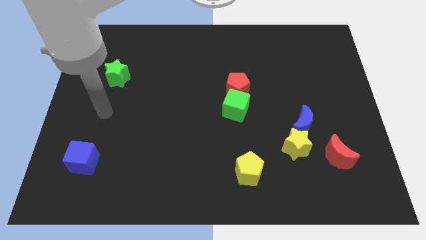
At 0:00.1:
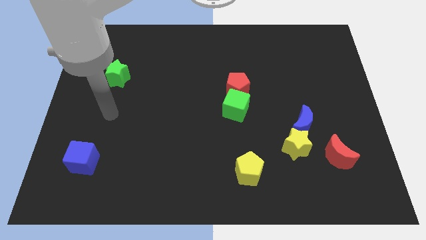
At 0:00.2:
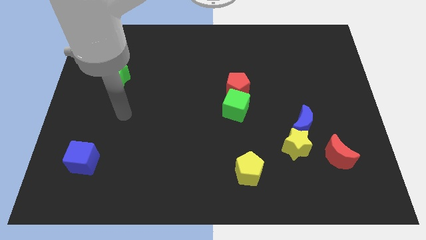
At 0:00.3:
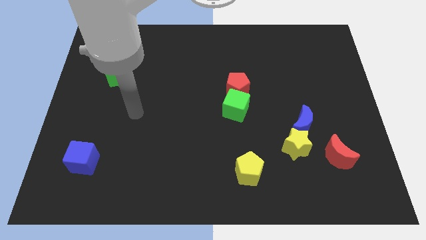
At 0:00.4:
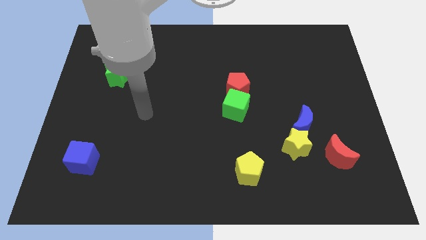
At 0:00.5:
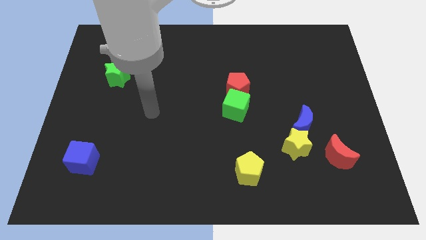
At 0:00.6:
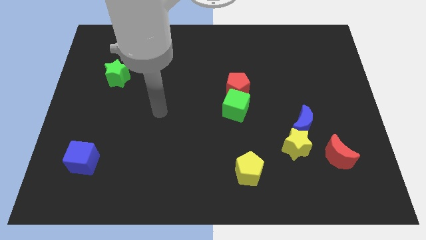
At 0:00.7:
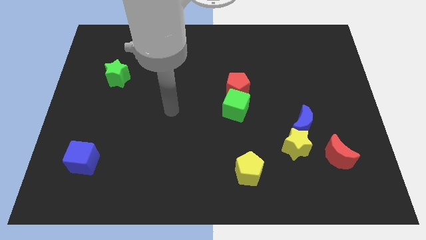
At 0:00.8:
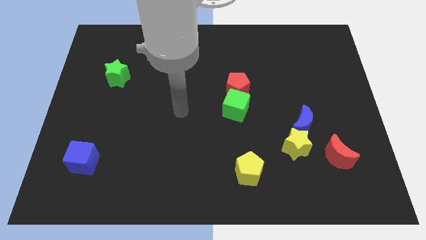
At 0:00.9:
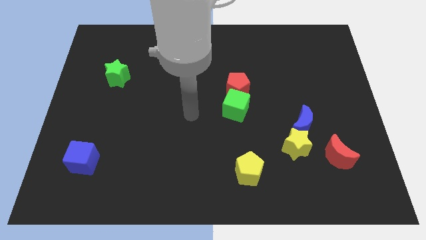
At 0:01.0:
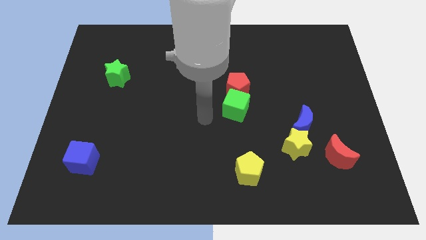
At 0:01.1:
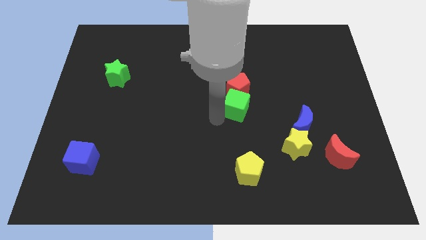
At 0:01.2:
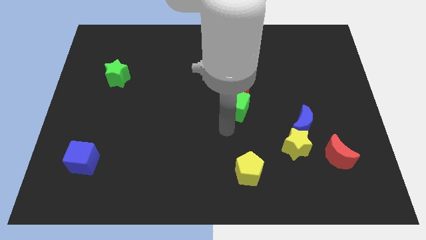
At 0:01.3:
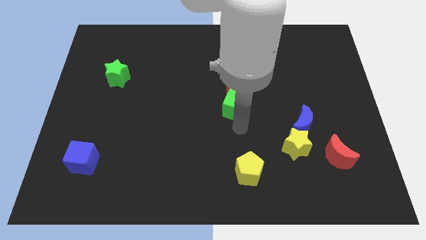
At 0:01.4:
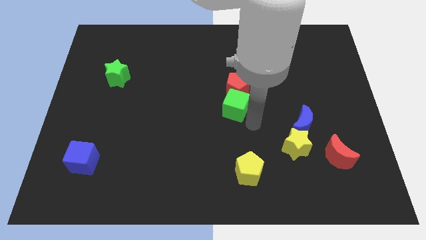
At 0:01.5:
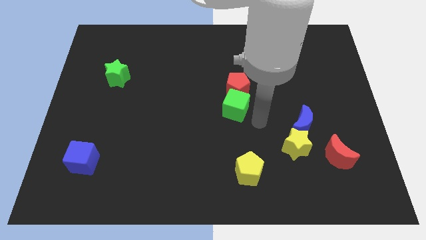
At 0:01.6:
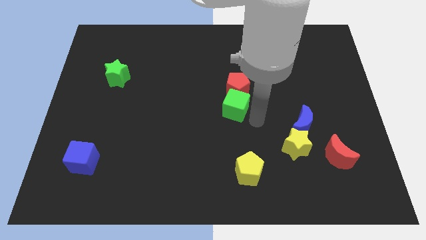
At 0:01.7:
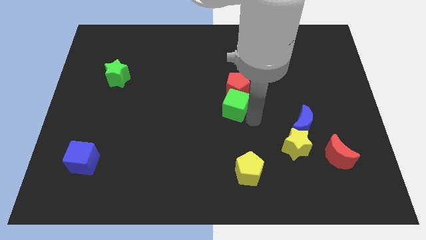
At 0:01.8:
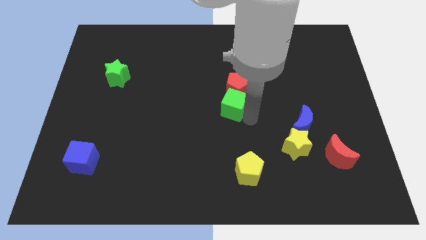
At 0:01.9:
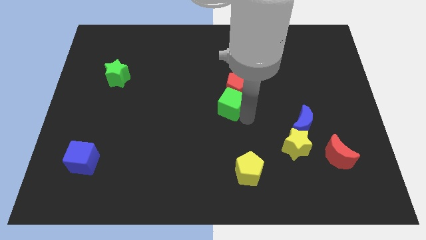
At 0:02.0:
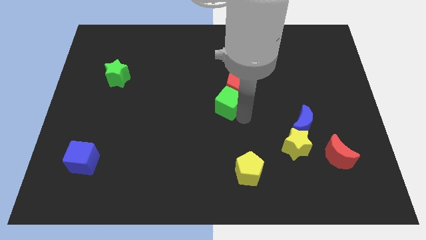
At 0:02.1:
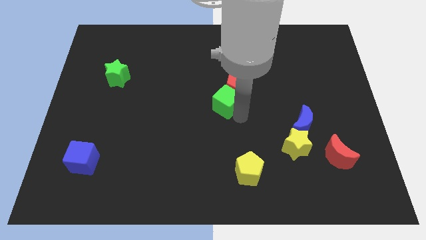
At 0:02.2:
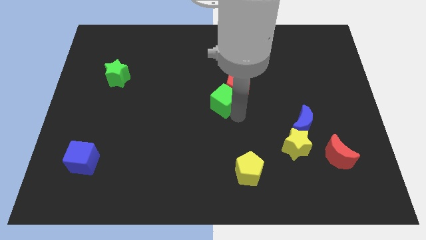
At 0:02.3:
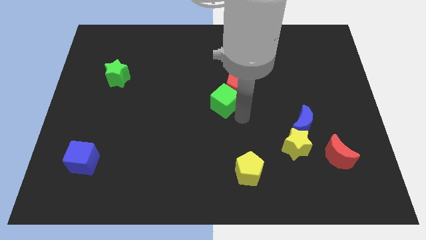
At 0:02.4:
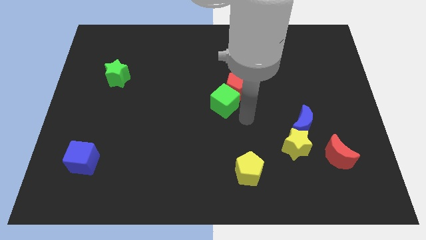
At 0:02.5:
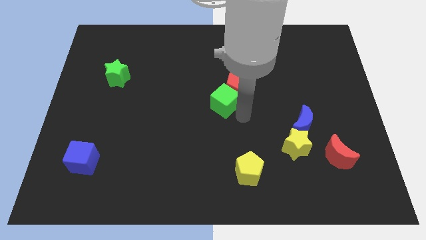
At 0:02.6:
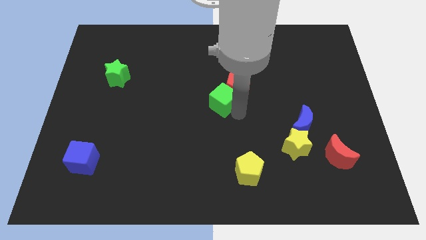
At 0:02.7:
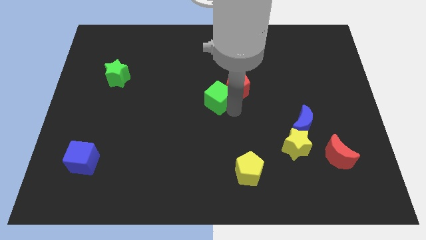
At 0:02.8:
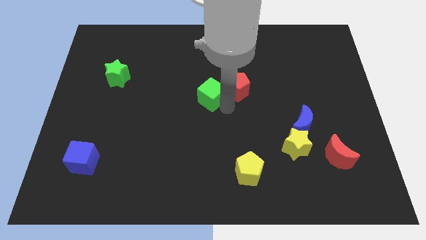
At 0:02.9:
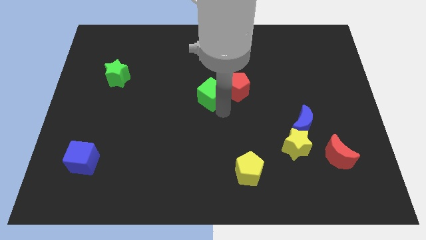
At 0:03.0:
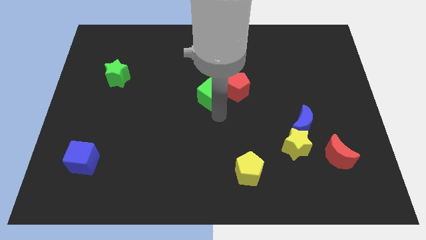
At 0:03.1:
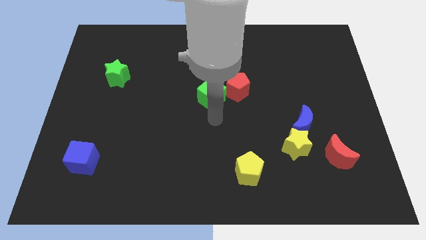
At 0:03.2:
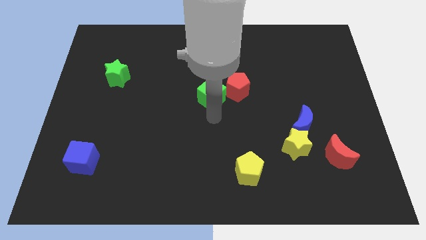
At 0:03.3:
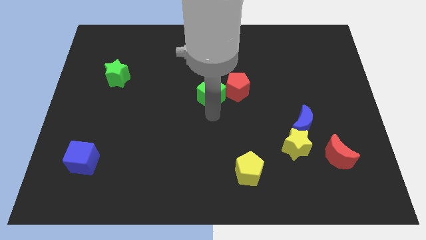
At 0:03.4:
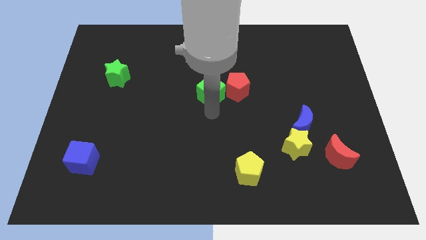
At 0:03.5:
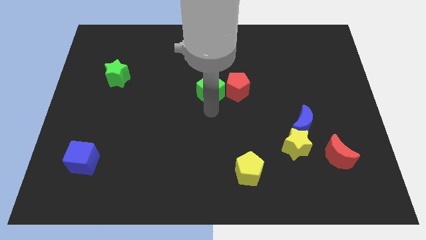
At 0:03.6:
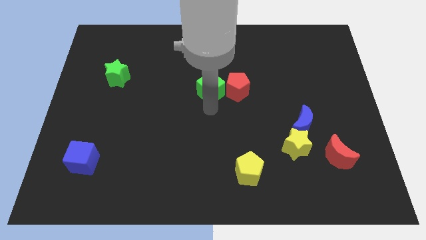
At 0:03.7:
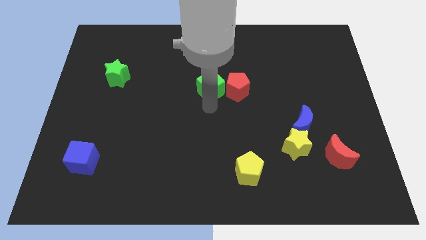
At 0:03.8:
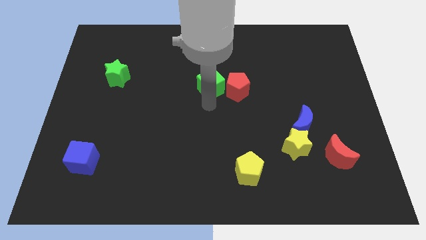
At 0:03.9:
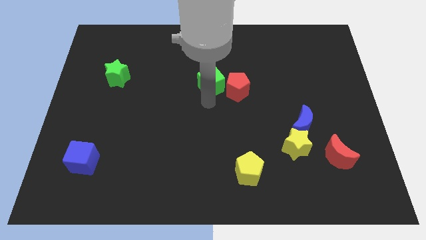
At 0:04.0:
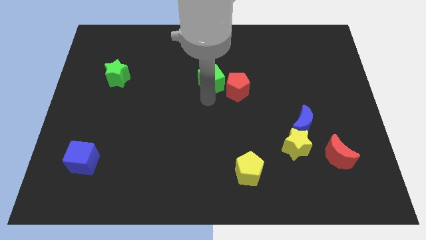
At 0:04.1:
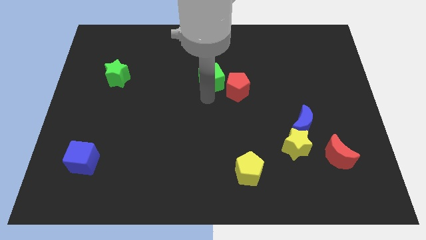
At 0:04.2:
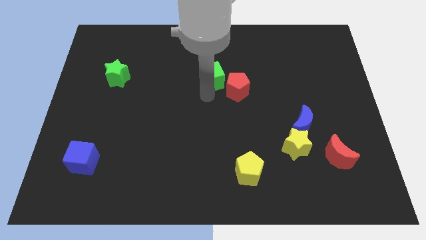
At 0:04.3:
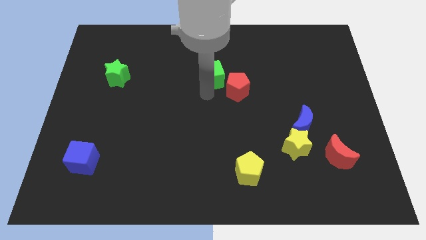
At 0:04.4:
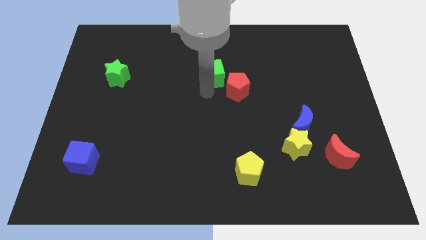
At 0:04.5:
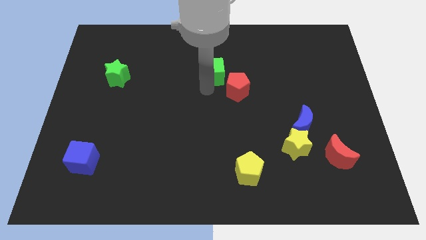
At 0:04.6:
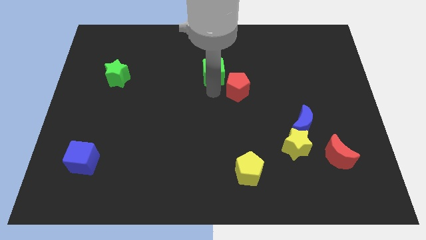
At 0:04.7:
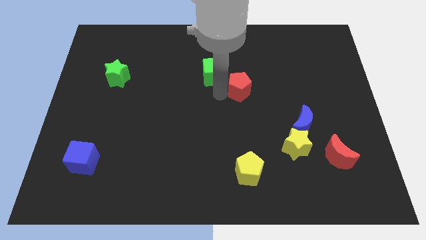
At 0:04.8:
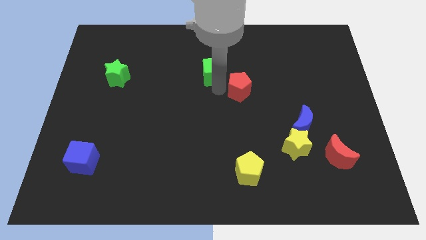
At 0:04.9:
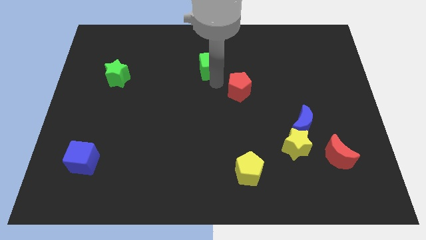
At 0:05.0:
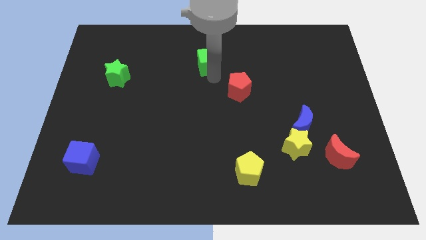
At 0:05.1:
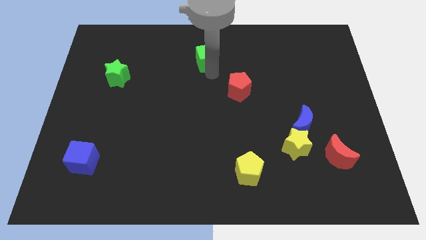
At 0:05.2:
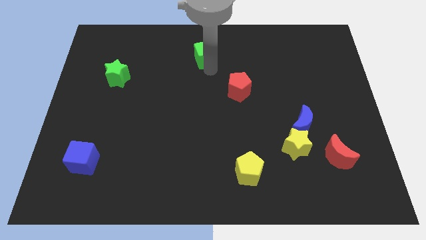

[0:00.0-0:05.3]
put the green cube to the top

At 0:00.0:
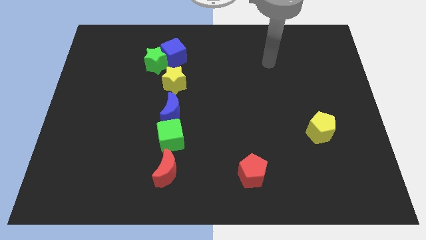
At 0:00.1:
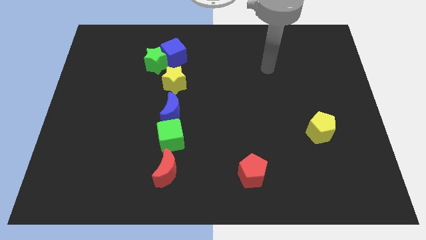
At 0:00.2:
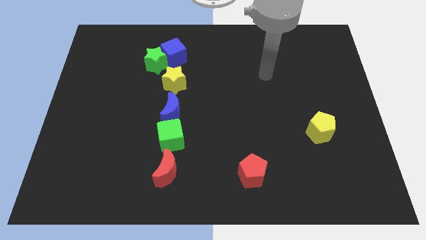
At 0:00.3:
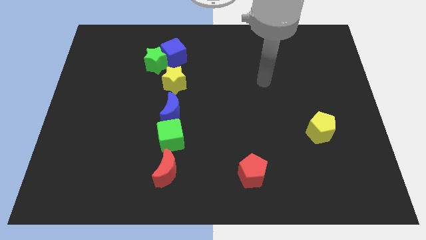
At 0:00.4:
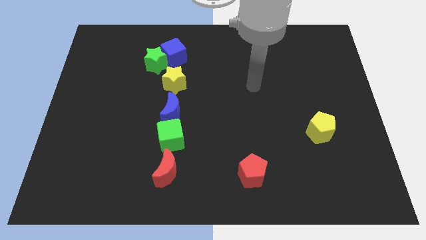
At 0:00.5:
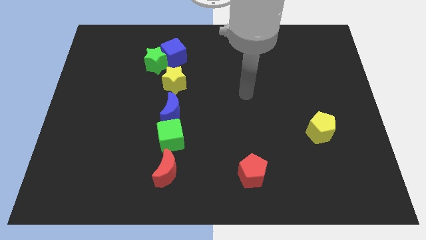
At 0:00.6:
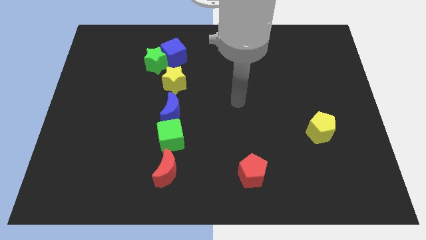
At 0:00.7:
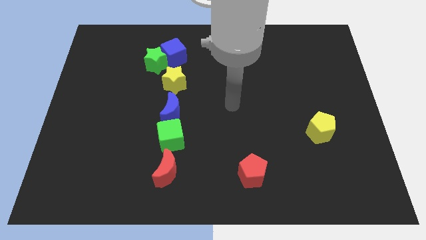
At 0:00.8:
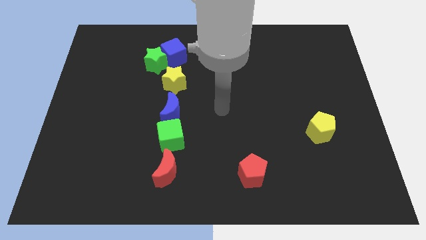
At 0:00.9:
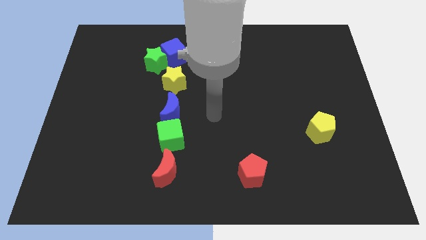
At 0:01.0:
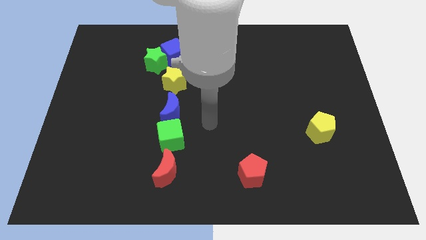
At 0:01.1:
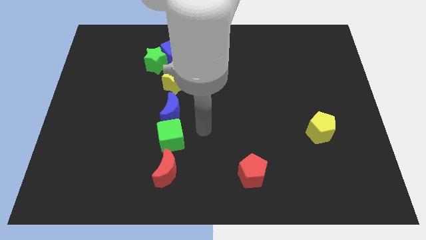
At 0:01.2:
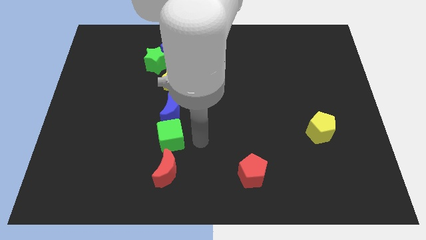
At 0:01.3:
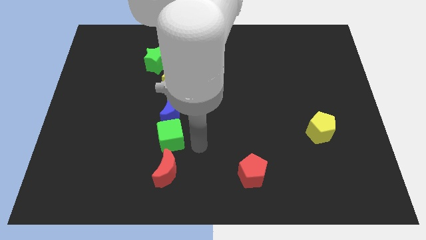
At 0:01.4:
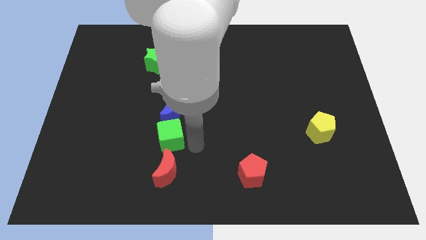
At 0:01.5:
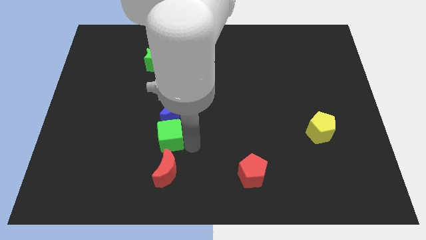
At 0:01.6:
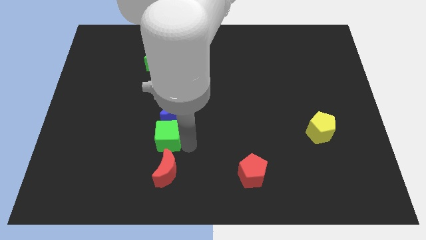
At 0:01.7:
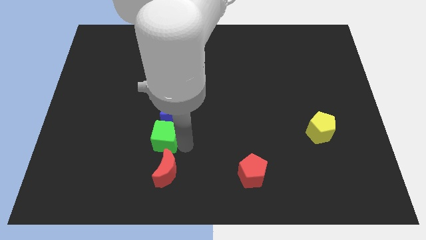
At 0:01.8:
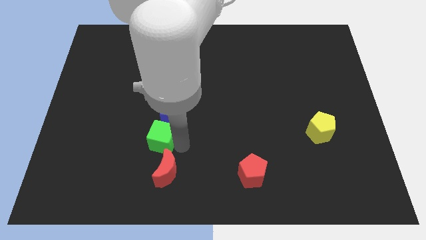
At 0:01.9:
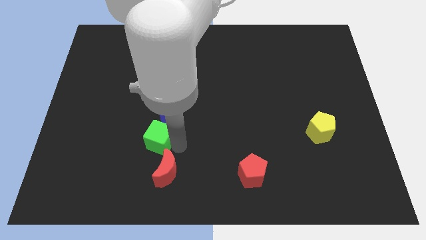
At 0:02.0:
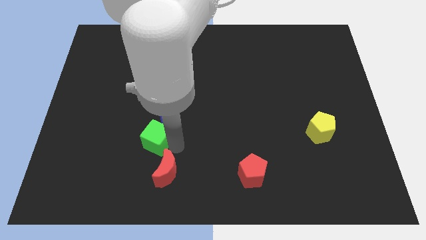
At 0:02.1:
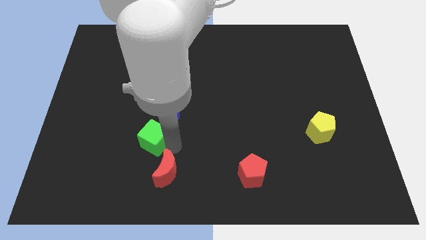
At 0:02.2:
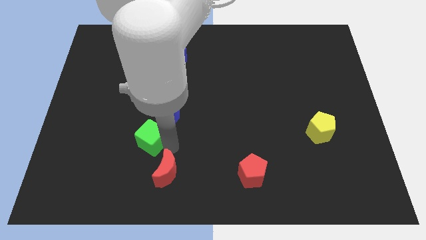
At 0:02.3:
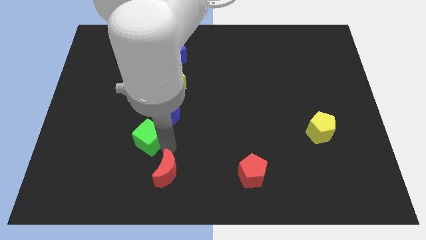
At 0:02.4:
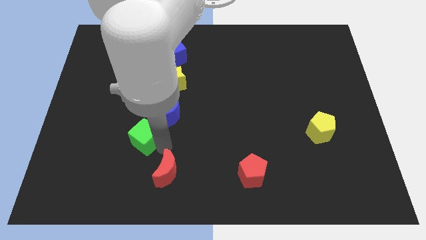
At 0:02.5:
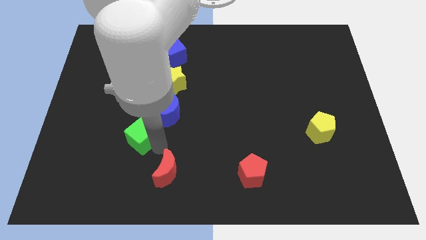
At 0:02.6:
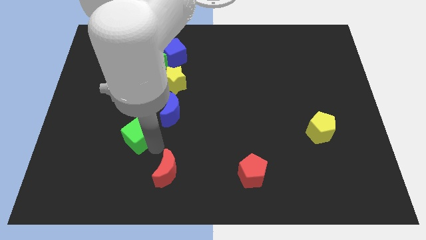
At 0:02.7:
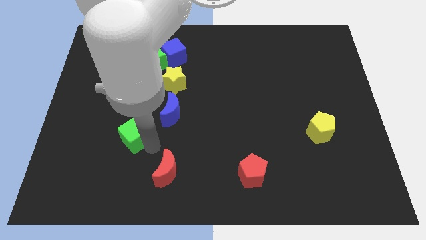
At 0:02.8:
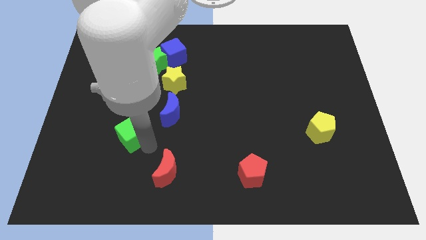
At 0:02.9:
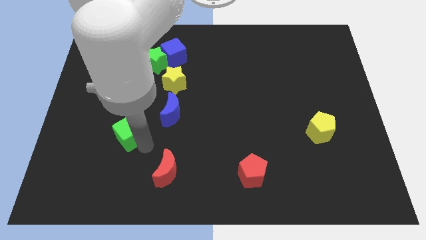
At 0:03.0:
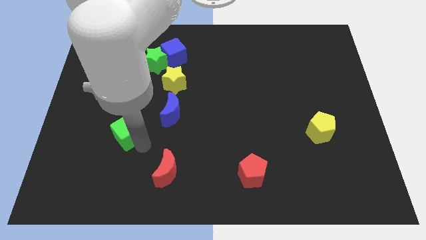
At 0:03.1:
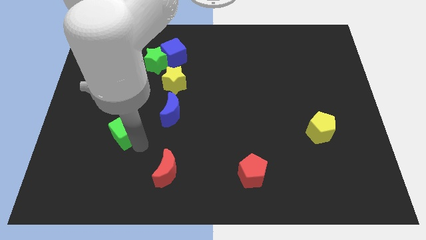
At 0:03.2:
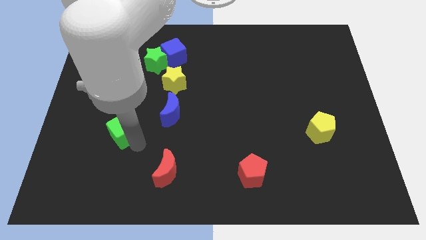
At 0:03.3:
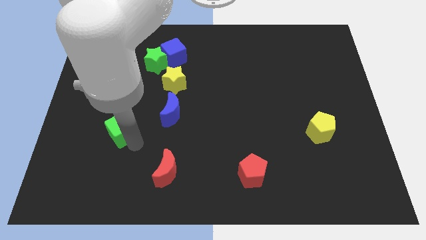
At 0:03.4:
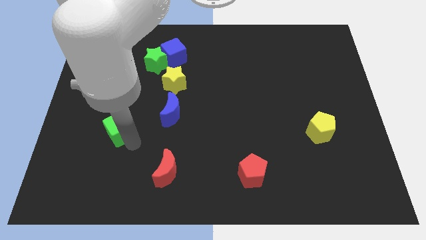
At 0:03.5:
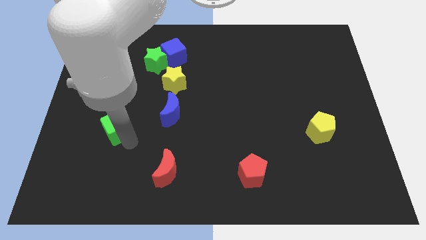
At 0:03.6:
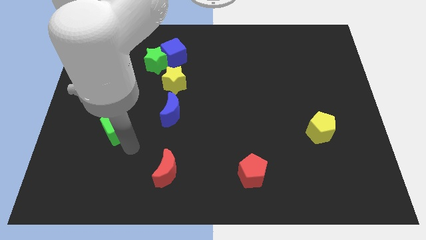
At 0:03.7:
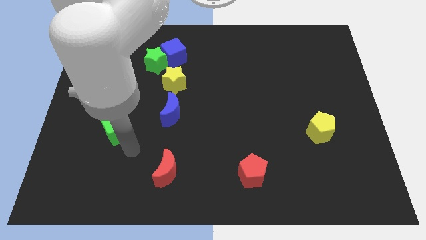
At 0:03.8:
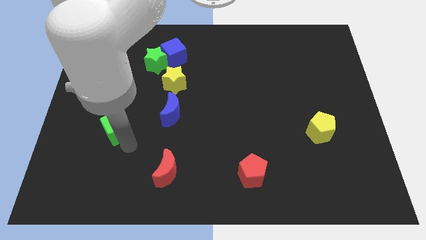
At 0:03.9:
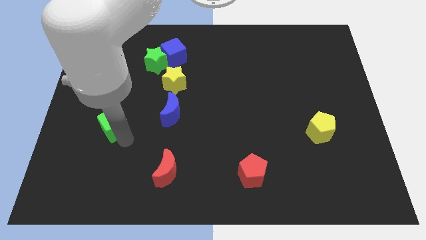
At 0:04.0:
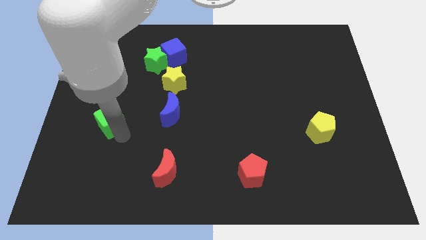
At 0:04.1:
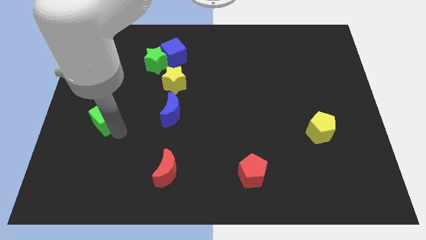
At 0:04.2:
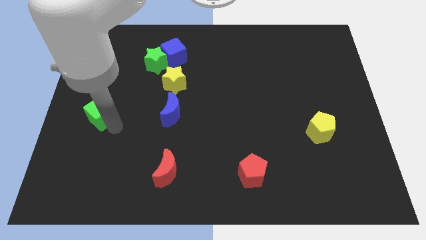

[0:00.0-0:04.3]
push the green cube to the left side
